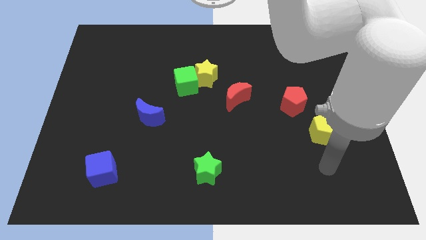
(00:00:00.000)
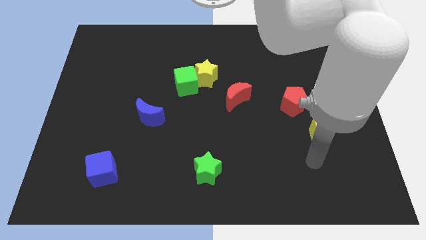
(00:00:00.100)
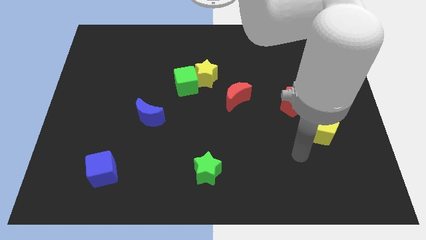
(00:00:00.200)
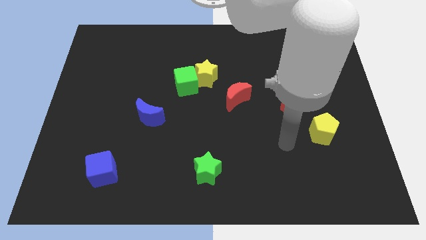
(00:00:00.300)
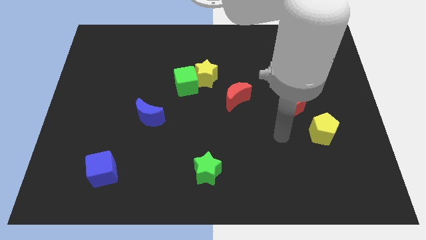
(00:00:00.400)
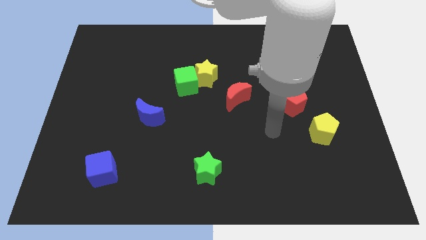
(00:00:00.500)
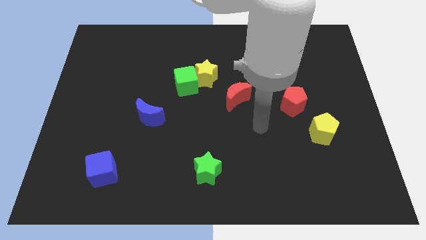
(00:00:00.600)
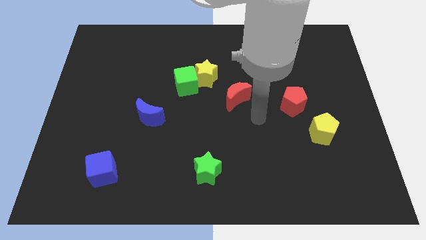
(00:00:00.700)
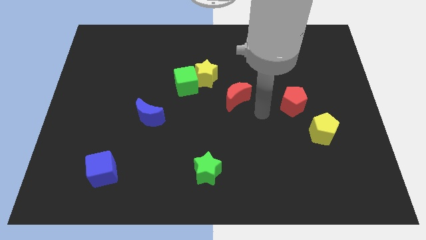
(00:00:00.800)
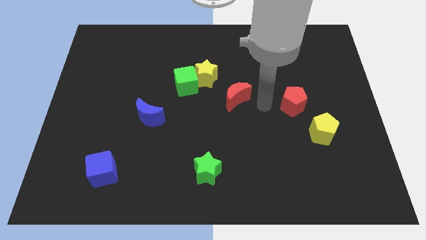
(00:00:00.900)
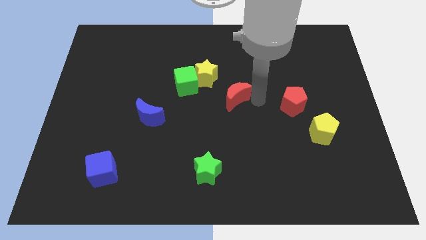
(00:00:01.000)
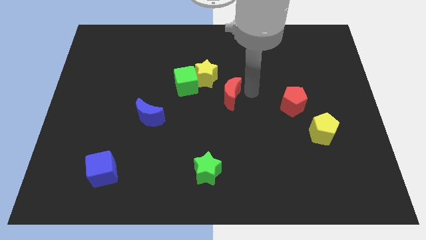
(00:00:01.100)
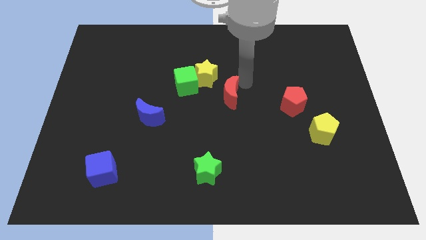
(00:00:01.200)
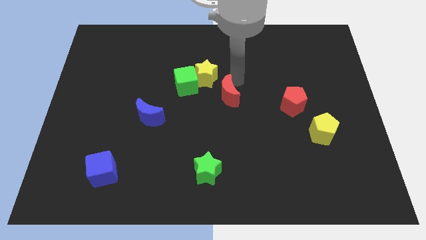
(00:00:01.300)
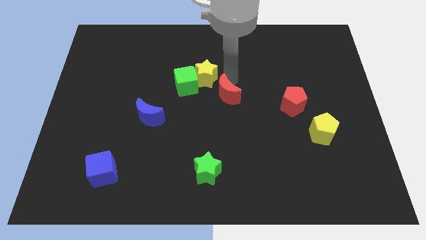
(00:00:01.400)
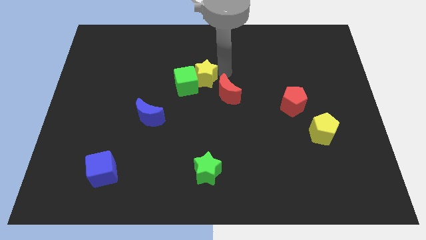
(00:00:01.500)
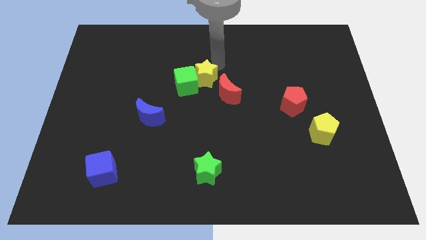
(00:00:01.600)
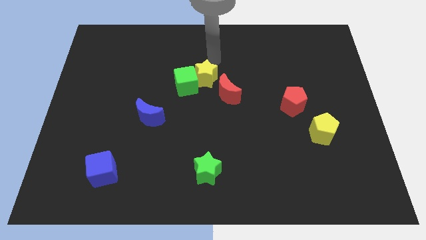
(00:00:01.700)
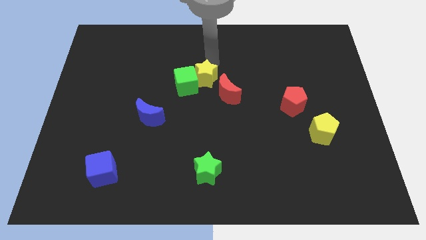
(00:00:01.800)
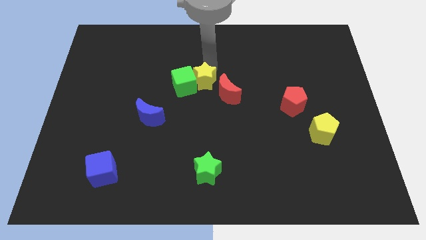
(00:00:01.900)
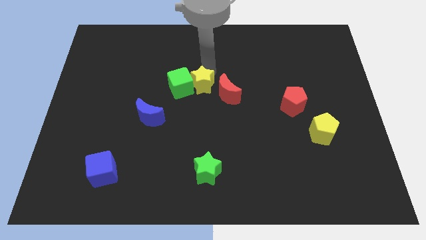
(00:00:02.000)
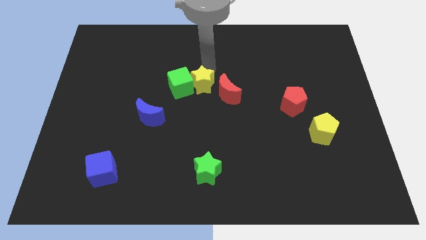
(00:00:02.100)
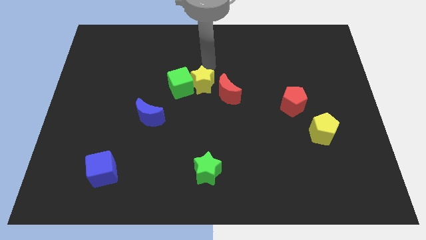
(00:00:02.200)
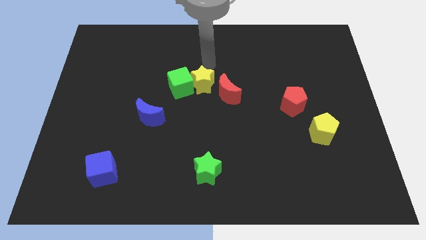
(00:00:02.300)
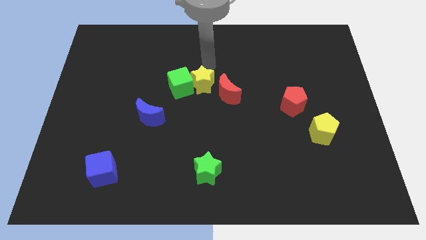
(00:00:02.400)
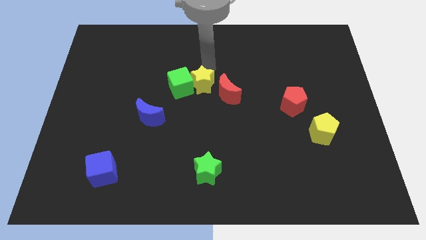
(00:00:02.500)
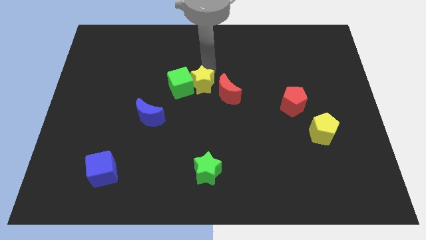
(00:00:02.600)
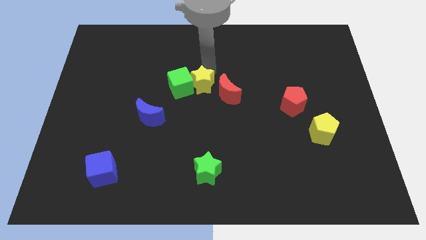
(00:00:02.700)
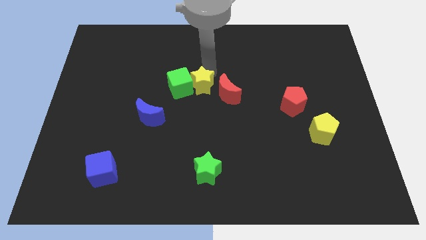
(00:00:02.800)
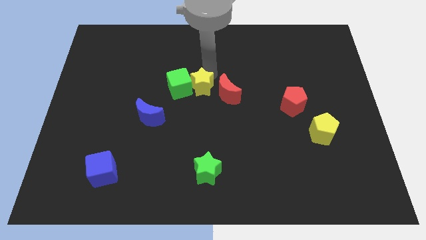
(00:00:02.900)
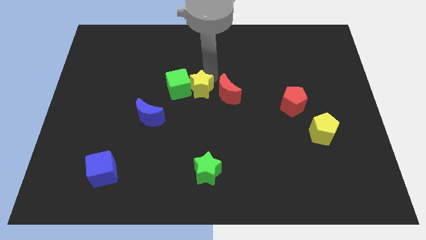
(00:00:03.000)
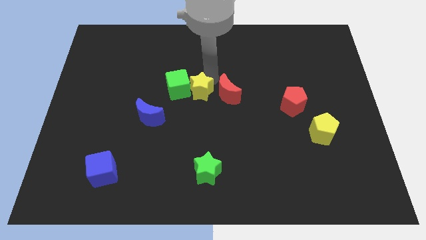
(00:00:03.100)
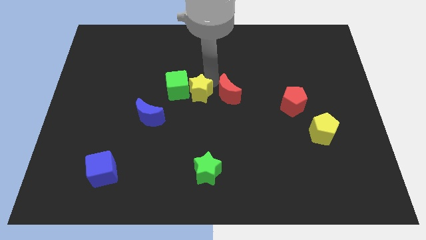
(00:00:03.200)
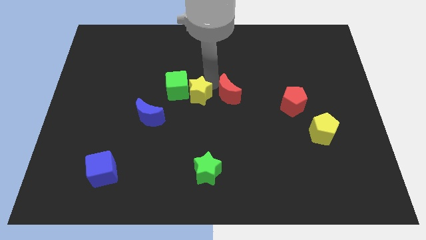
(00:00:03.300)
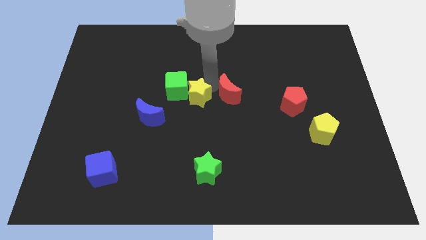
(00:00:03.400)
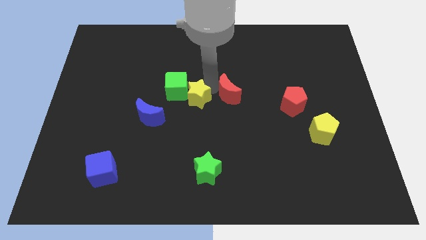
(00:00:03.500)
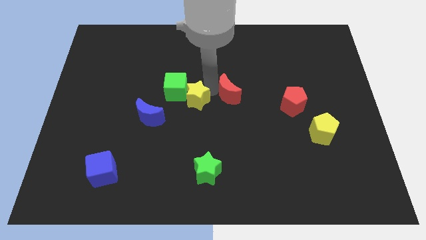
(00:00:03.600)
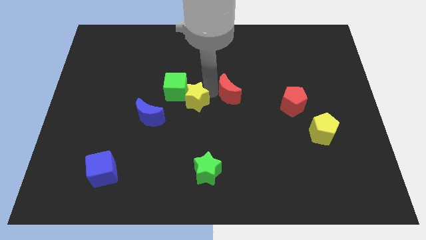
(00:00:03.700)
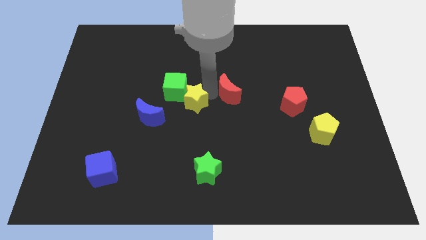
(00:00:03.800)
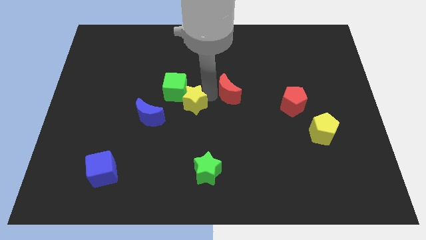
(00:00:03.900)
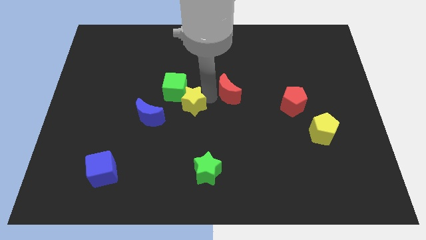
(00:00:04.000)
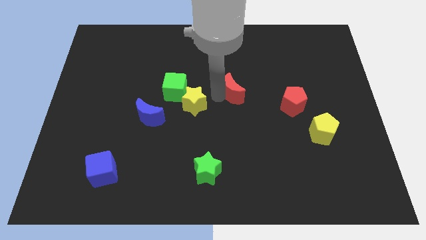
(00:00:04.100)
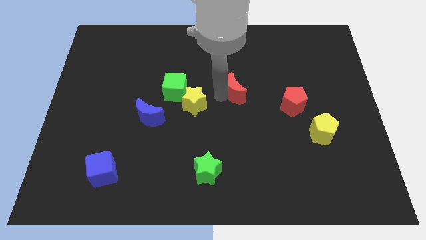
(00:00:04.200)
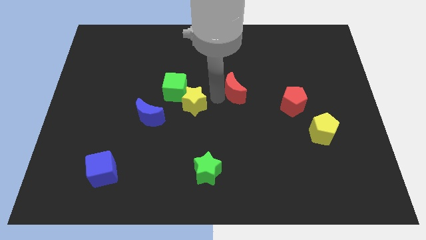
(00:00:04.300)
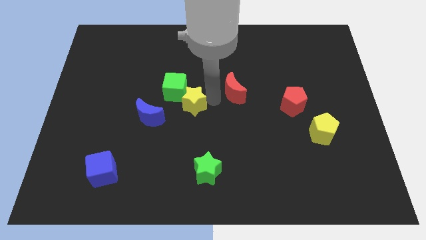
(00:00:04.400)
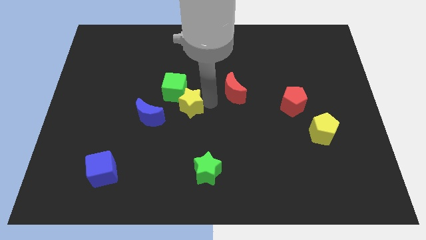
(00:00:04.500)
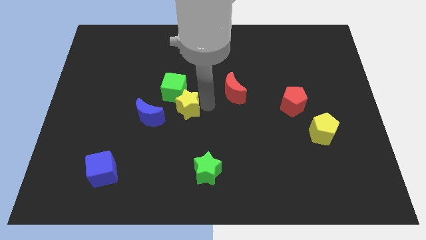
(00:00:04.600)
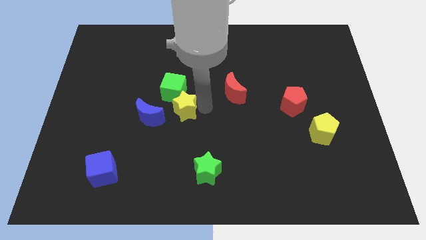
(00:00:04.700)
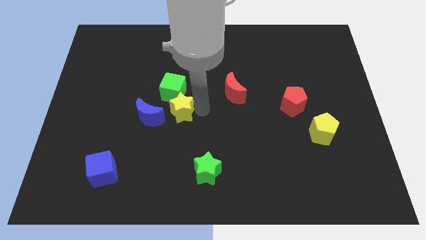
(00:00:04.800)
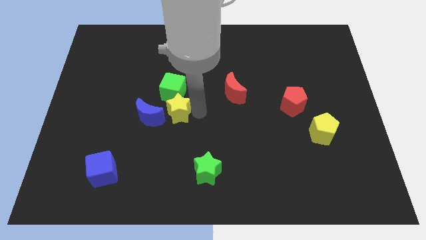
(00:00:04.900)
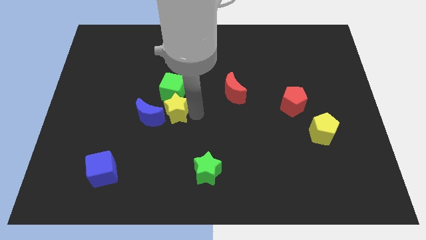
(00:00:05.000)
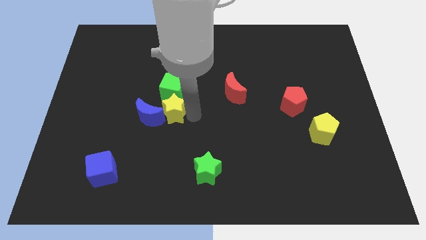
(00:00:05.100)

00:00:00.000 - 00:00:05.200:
slide the yellow star to the blue moon

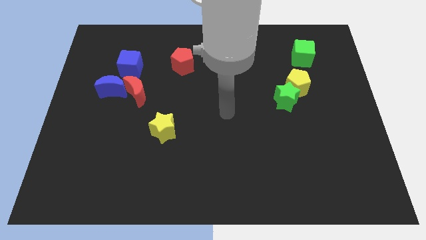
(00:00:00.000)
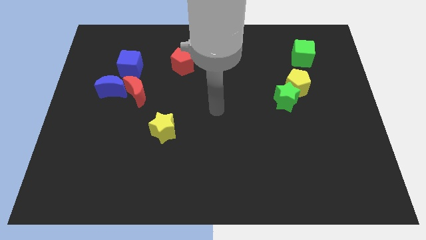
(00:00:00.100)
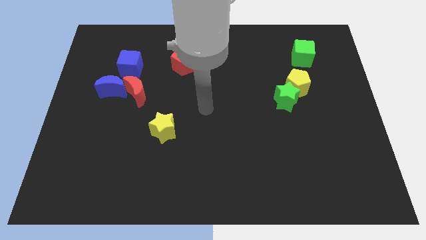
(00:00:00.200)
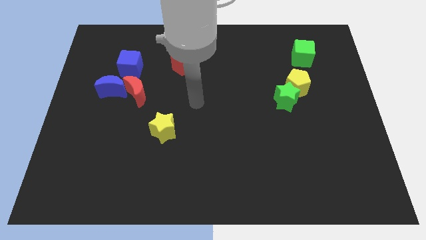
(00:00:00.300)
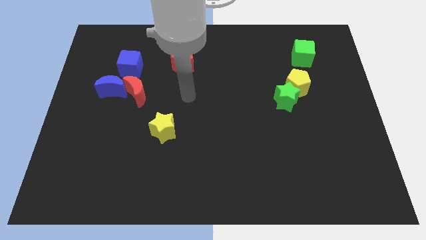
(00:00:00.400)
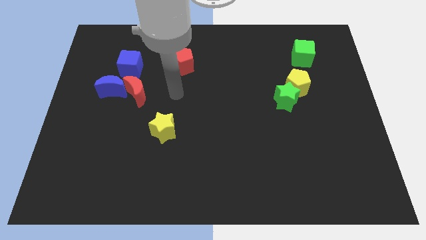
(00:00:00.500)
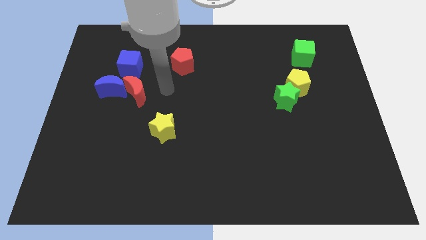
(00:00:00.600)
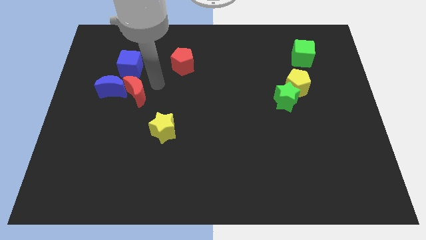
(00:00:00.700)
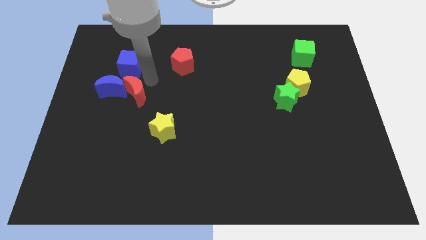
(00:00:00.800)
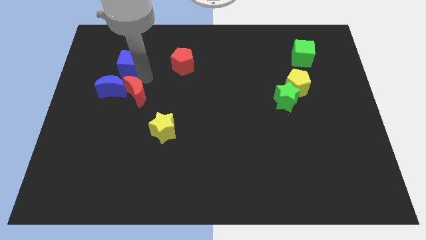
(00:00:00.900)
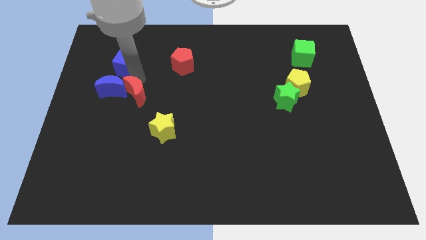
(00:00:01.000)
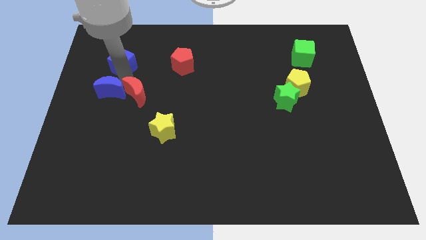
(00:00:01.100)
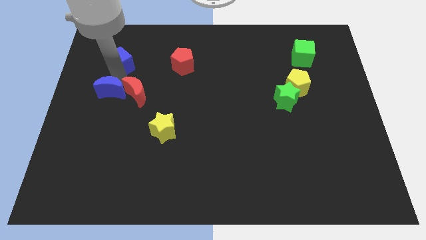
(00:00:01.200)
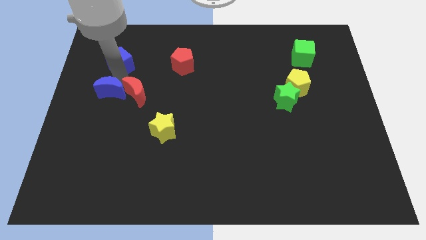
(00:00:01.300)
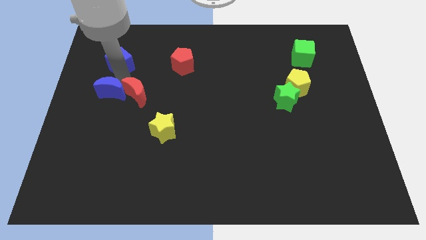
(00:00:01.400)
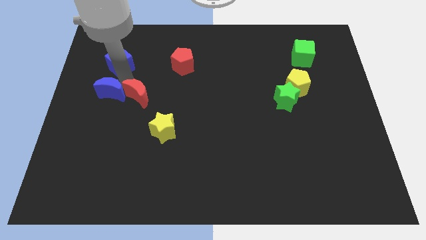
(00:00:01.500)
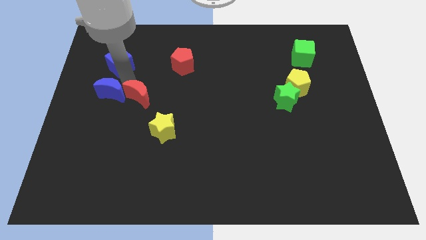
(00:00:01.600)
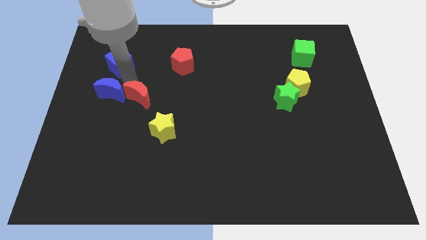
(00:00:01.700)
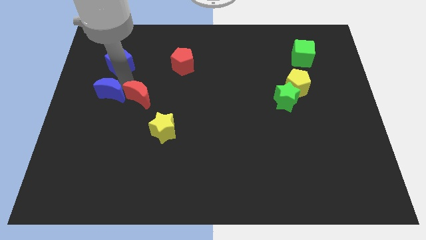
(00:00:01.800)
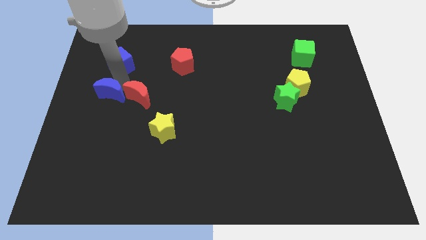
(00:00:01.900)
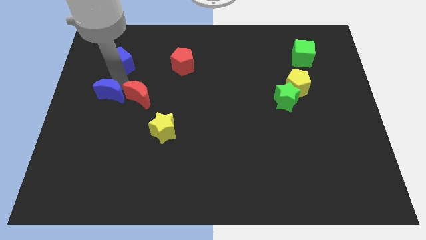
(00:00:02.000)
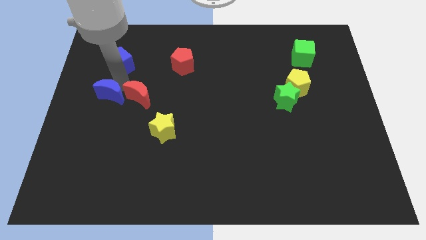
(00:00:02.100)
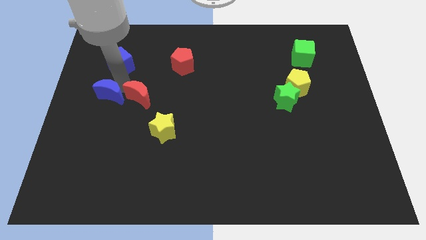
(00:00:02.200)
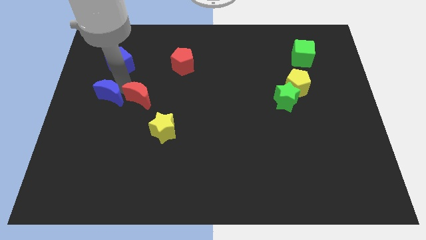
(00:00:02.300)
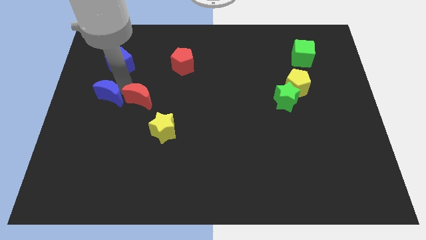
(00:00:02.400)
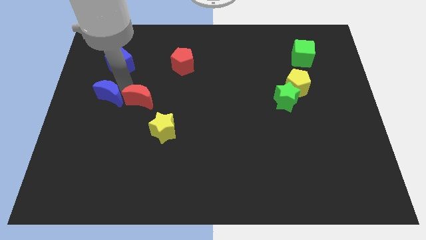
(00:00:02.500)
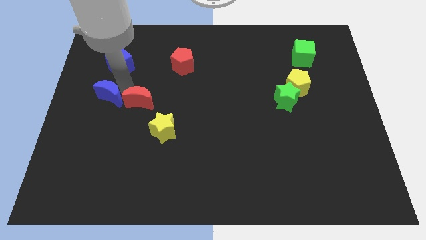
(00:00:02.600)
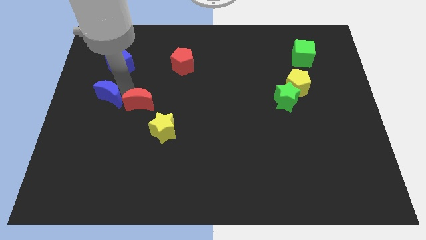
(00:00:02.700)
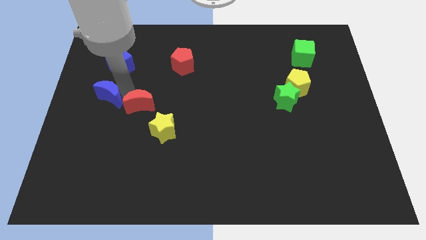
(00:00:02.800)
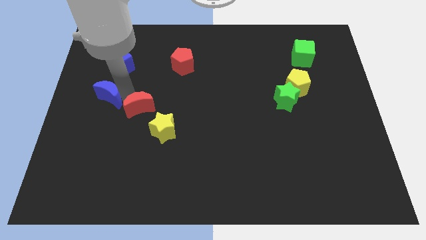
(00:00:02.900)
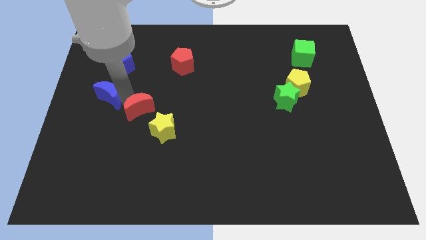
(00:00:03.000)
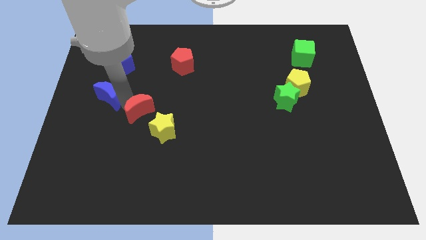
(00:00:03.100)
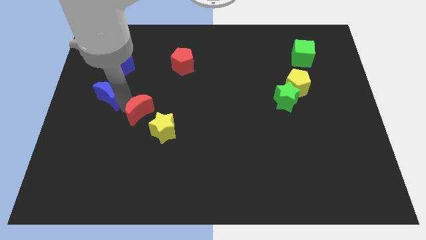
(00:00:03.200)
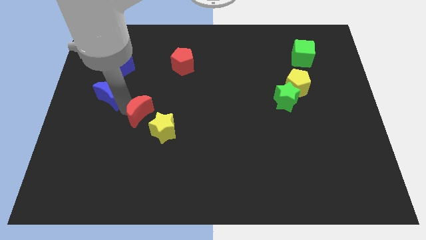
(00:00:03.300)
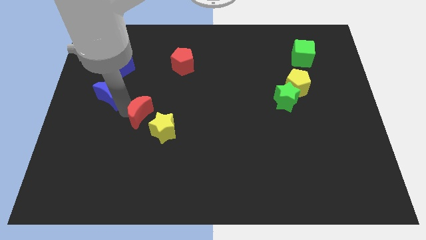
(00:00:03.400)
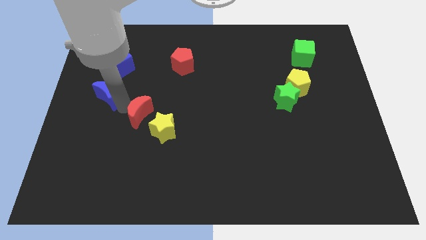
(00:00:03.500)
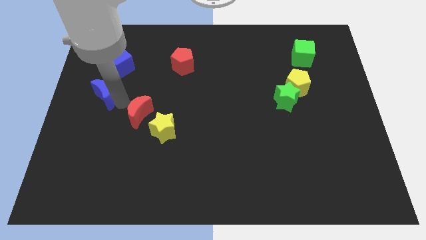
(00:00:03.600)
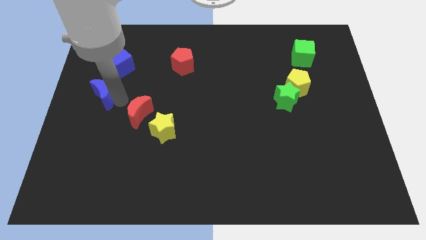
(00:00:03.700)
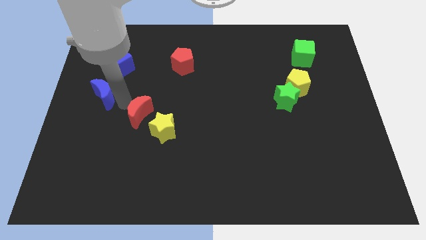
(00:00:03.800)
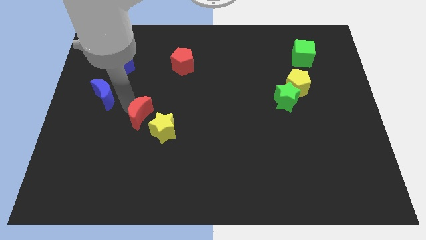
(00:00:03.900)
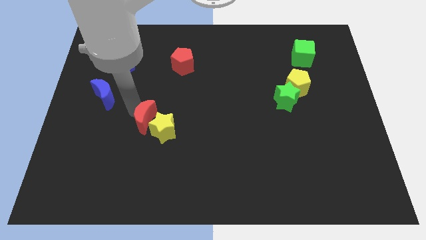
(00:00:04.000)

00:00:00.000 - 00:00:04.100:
push the red moon towards the yellow star
